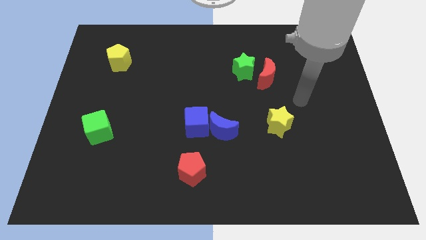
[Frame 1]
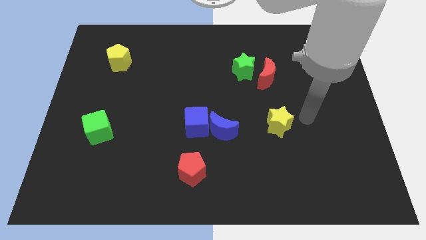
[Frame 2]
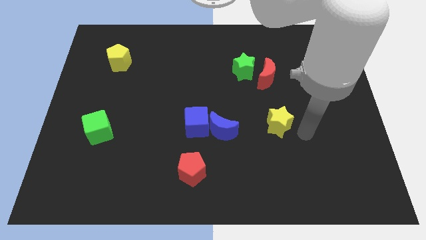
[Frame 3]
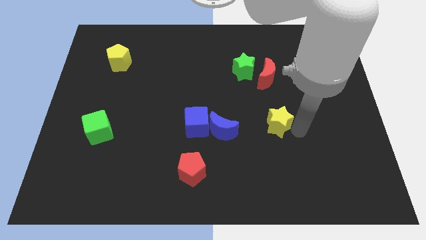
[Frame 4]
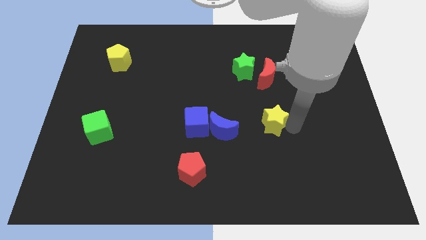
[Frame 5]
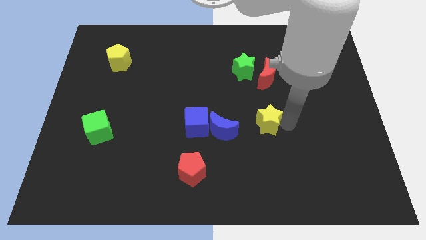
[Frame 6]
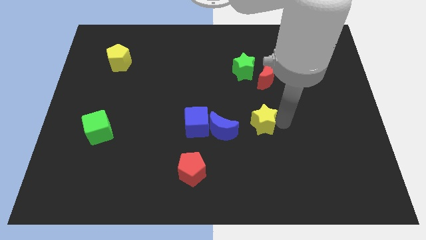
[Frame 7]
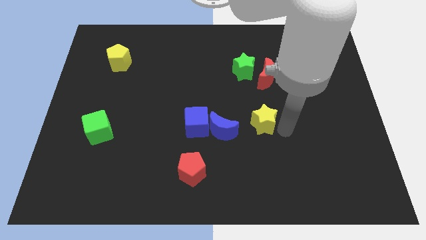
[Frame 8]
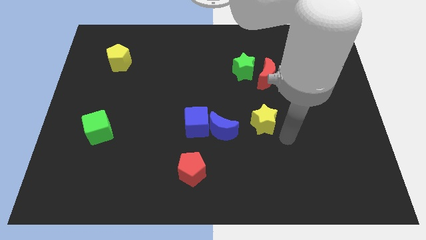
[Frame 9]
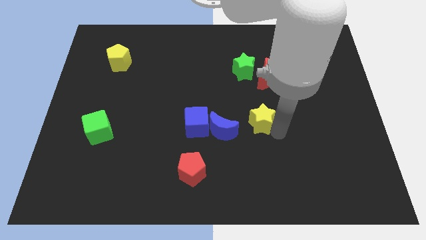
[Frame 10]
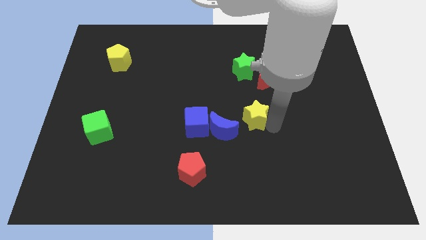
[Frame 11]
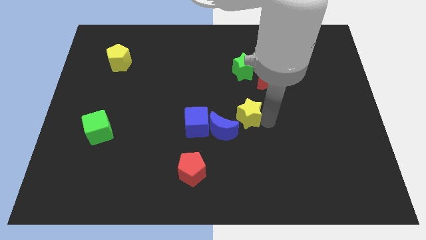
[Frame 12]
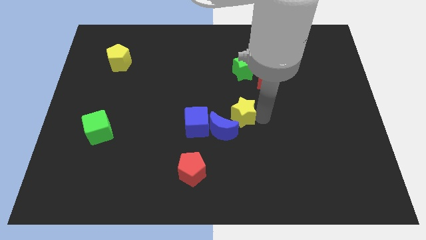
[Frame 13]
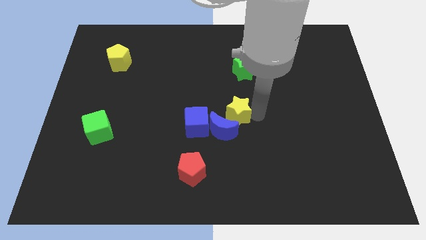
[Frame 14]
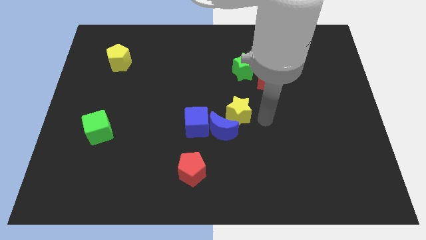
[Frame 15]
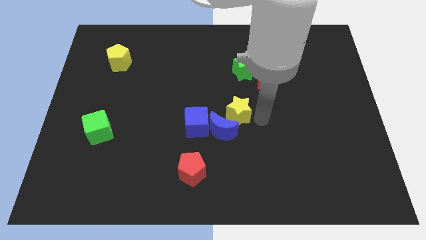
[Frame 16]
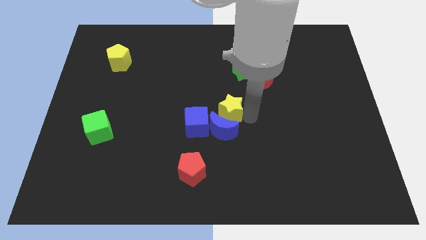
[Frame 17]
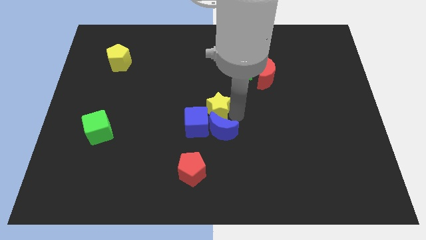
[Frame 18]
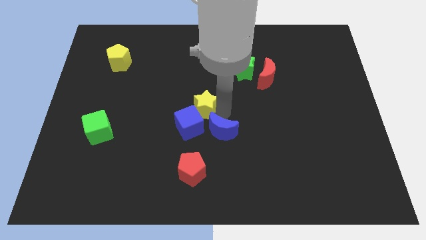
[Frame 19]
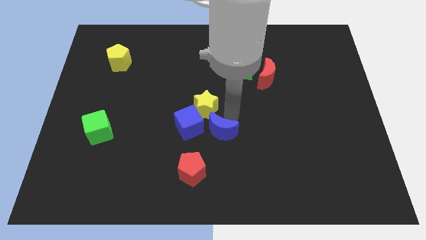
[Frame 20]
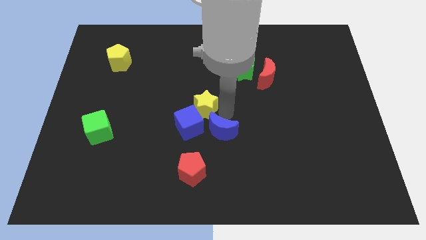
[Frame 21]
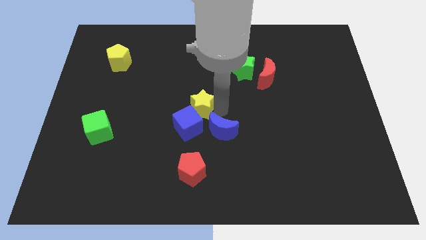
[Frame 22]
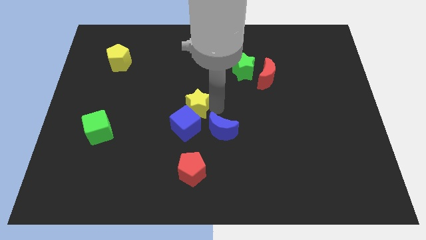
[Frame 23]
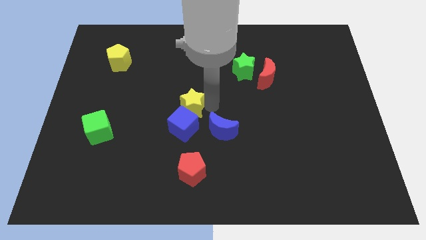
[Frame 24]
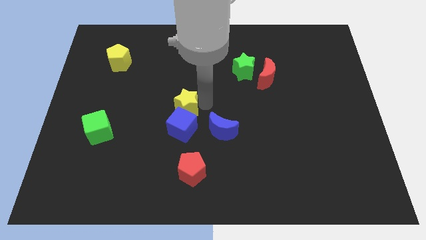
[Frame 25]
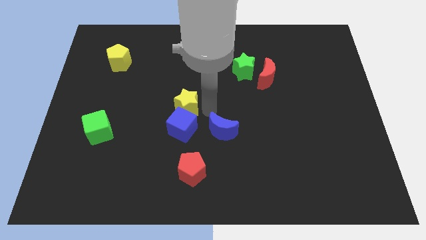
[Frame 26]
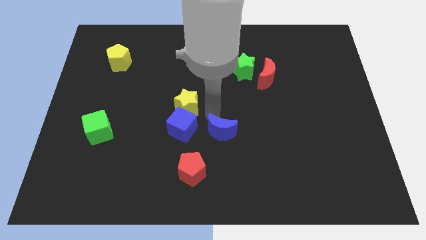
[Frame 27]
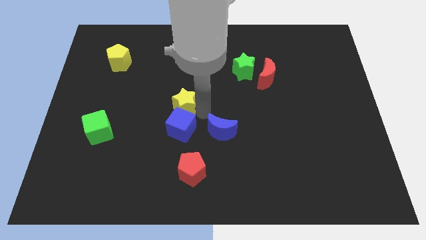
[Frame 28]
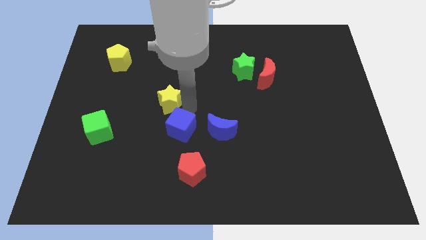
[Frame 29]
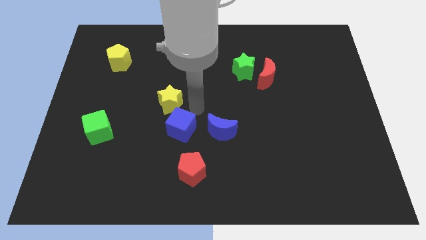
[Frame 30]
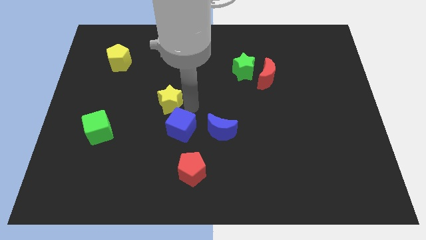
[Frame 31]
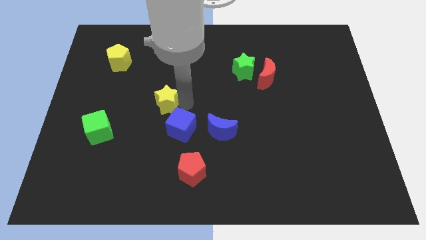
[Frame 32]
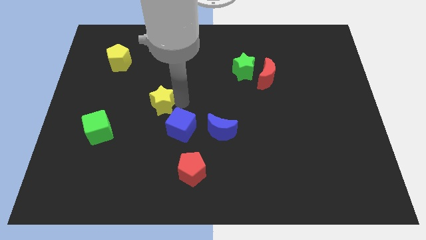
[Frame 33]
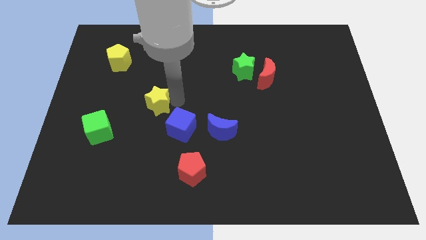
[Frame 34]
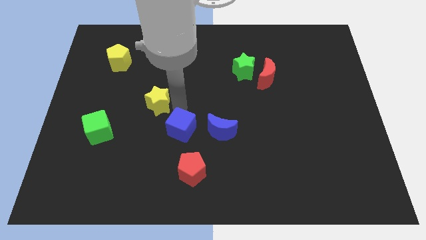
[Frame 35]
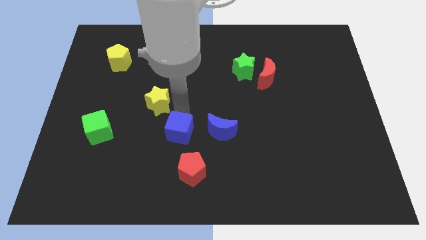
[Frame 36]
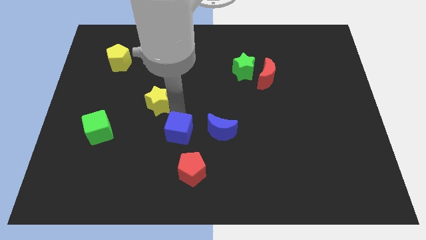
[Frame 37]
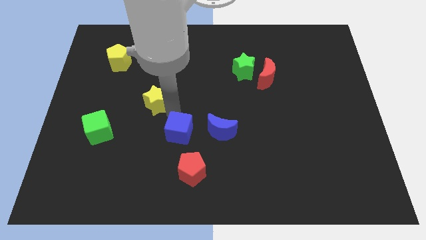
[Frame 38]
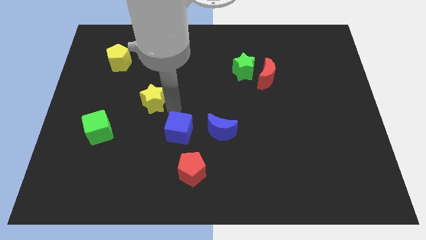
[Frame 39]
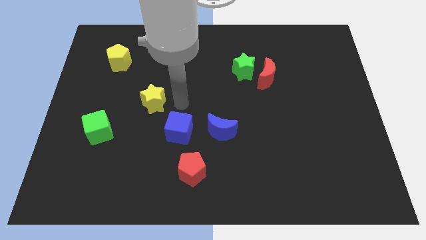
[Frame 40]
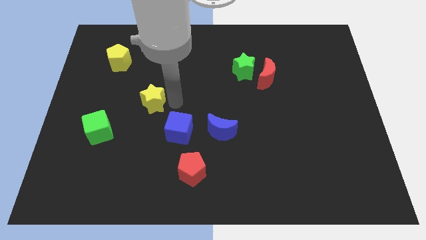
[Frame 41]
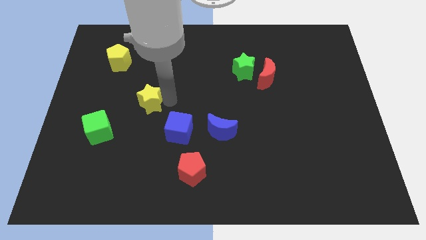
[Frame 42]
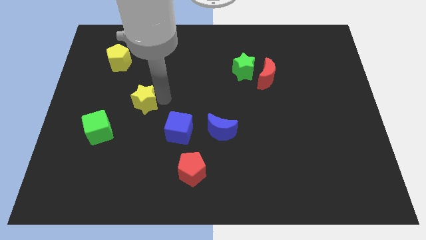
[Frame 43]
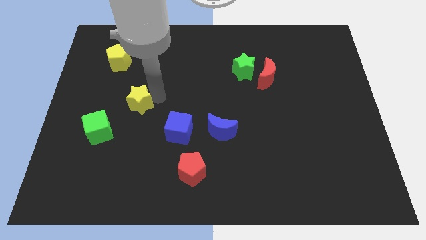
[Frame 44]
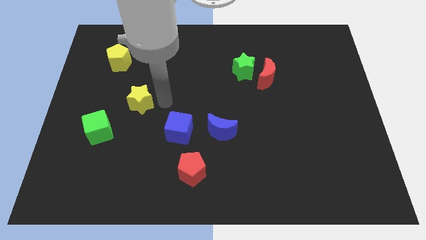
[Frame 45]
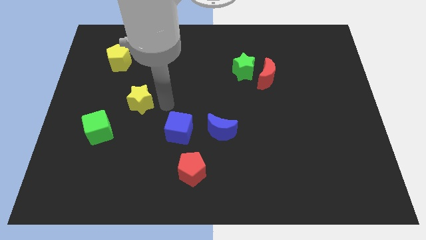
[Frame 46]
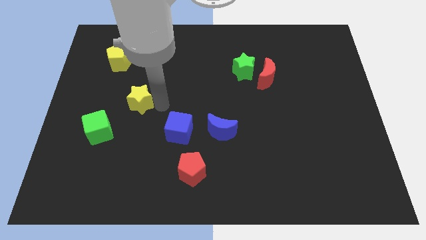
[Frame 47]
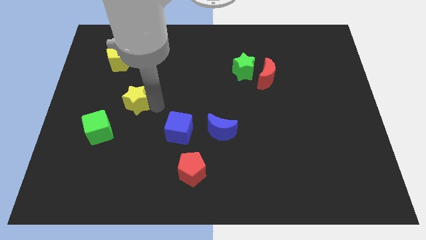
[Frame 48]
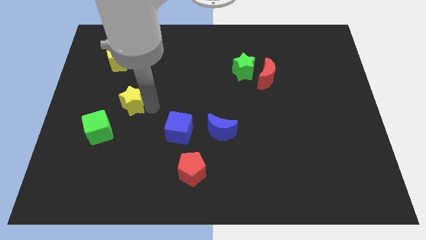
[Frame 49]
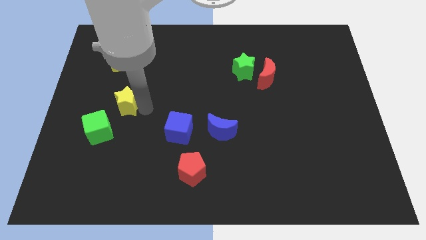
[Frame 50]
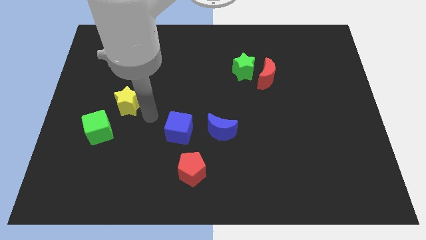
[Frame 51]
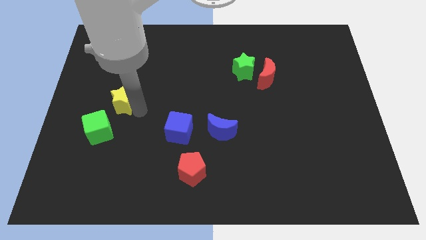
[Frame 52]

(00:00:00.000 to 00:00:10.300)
put the yellow star to the top of the green cube

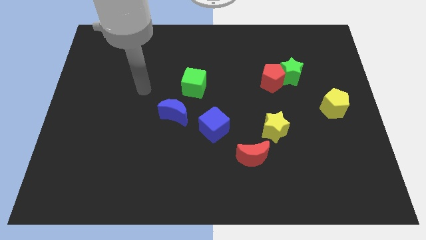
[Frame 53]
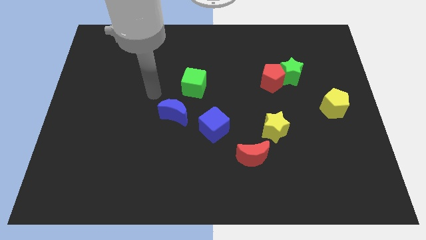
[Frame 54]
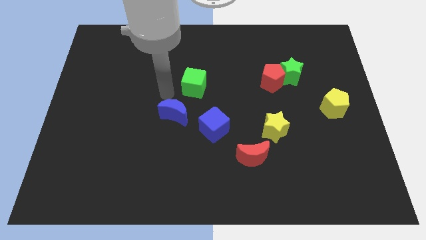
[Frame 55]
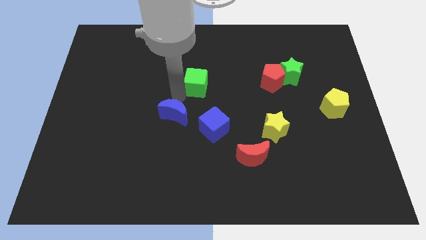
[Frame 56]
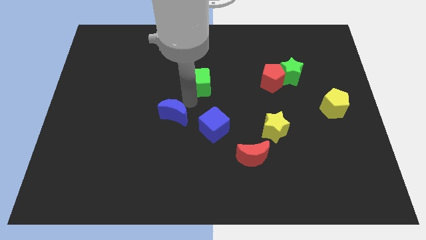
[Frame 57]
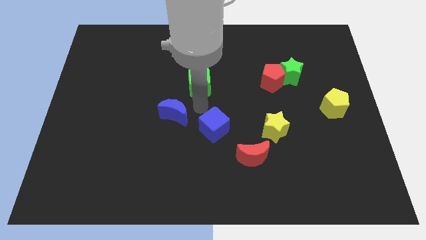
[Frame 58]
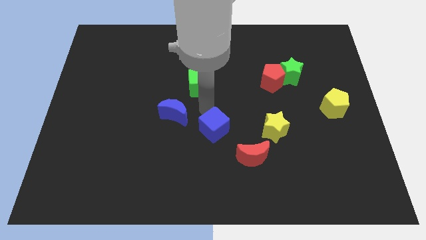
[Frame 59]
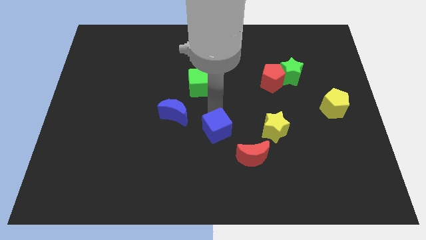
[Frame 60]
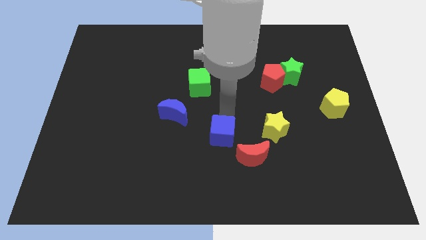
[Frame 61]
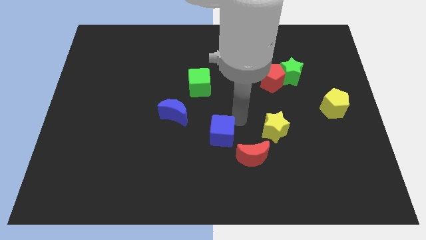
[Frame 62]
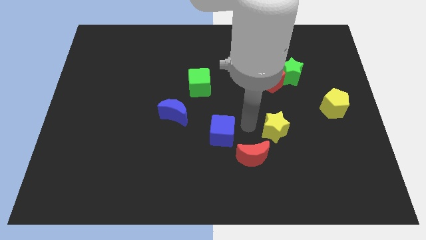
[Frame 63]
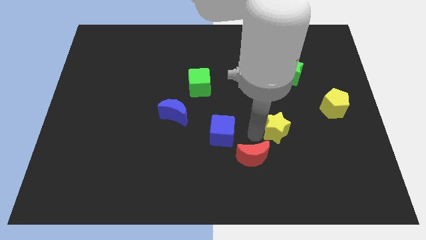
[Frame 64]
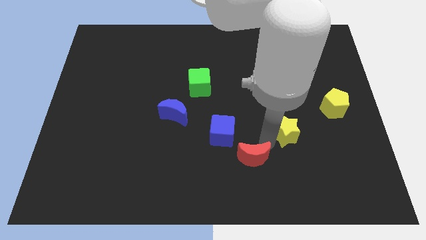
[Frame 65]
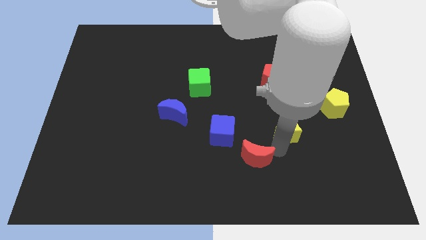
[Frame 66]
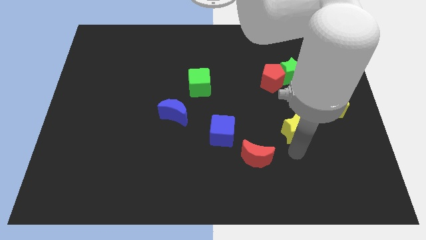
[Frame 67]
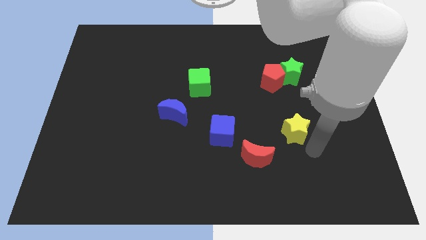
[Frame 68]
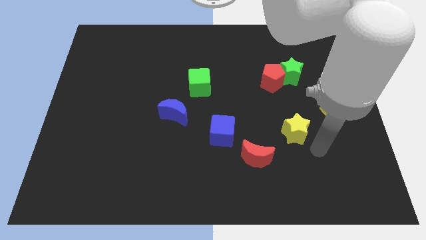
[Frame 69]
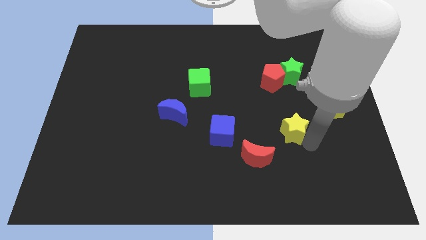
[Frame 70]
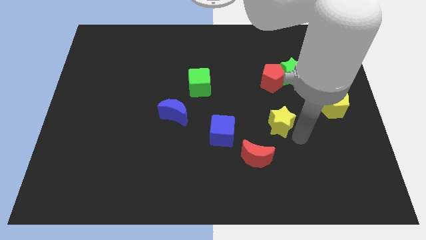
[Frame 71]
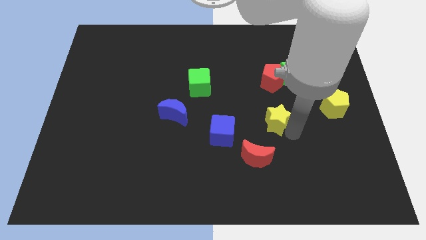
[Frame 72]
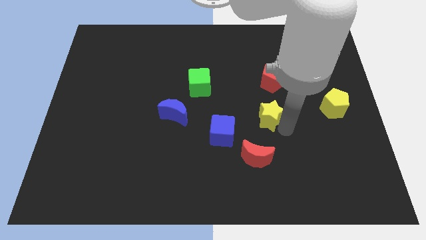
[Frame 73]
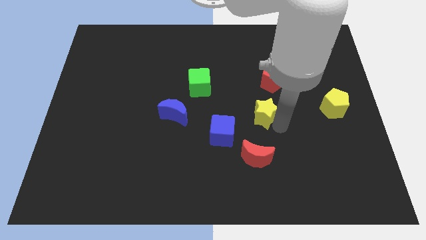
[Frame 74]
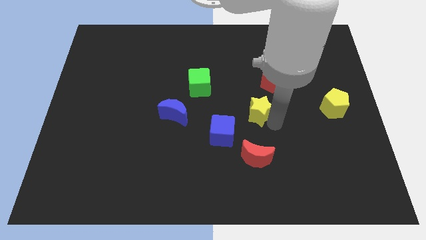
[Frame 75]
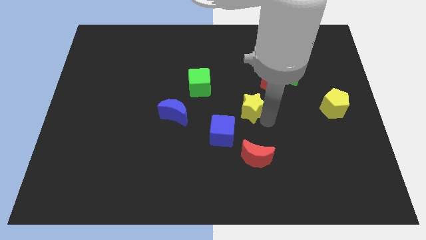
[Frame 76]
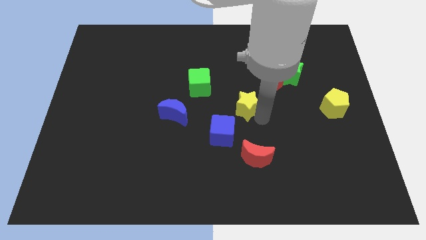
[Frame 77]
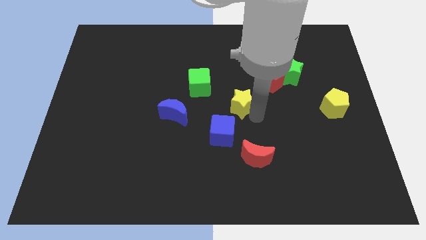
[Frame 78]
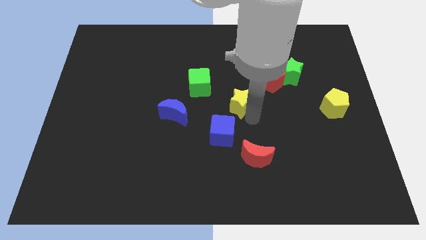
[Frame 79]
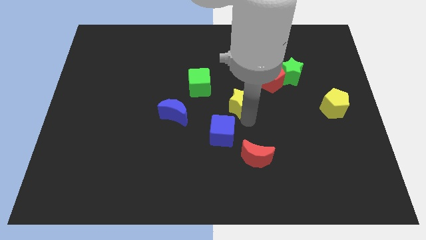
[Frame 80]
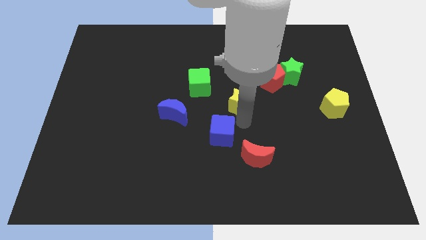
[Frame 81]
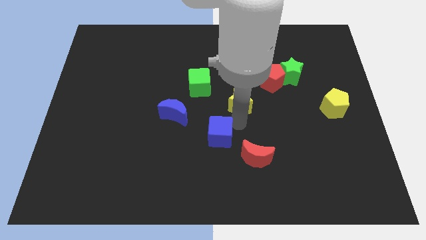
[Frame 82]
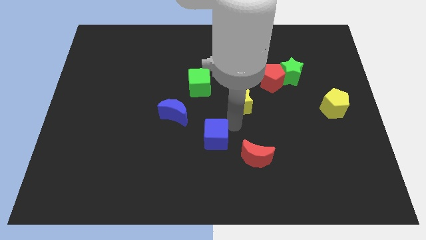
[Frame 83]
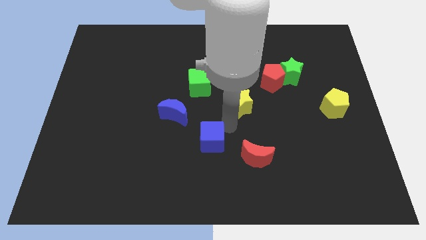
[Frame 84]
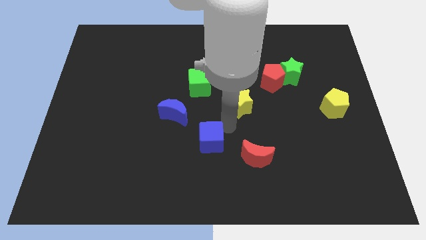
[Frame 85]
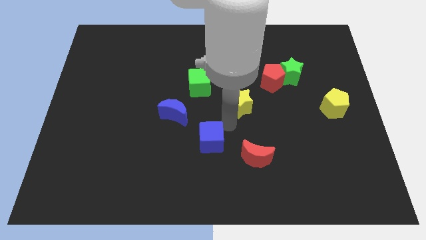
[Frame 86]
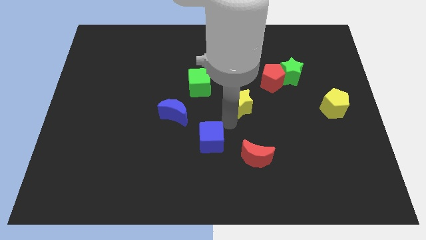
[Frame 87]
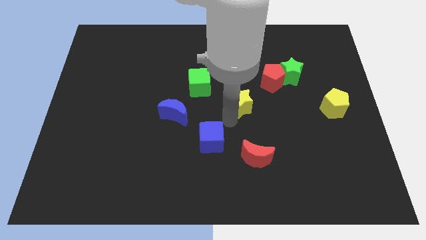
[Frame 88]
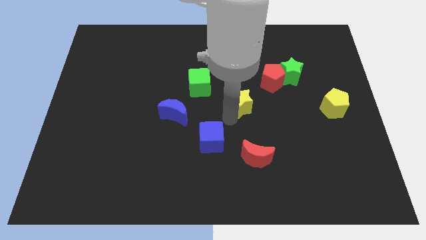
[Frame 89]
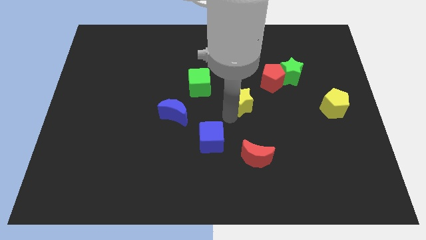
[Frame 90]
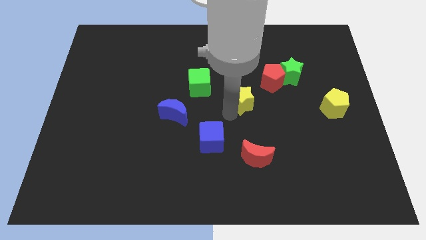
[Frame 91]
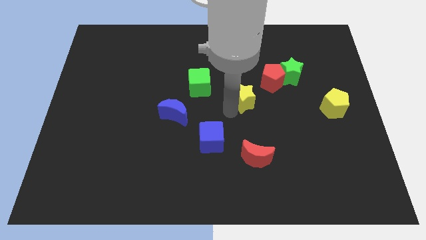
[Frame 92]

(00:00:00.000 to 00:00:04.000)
push the yellow star to the right of the green cube
